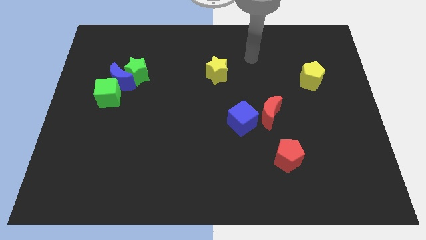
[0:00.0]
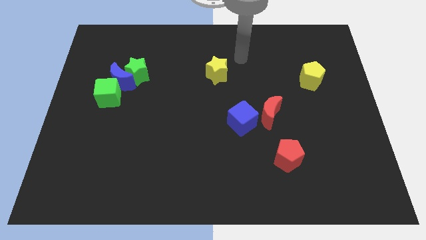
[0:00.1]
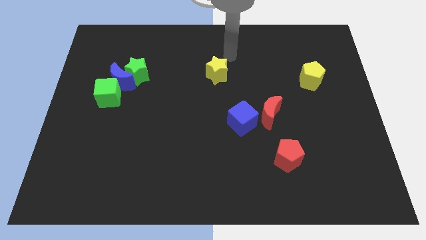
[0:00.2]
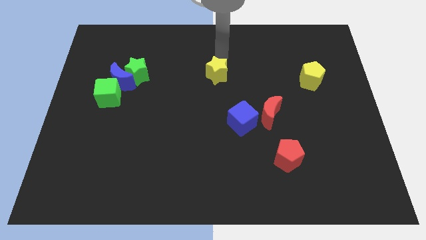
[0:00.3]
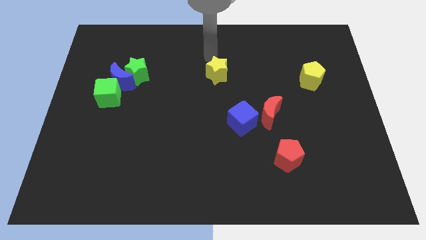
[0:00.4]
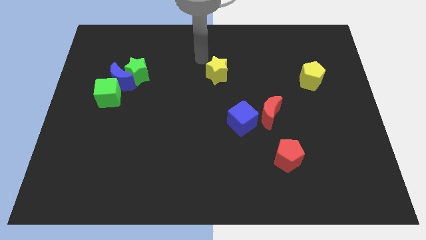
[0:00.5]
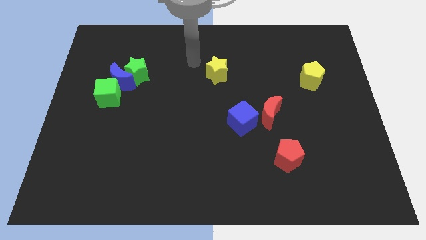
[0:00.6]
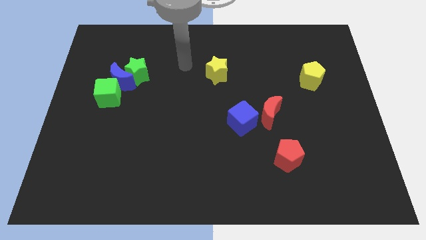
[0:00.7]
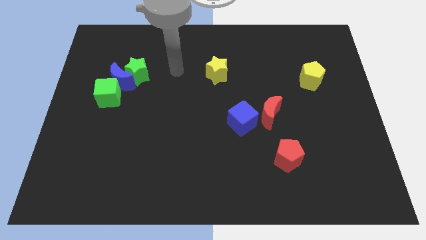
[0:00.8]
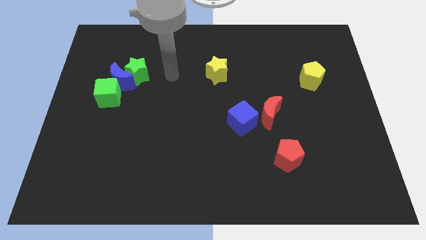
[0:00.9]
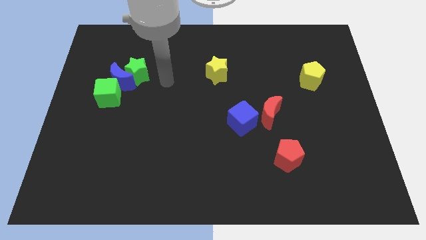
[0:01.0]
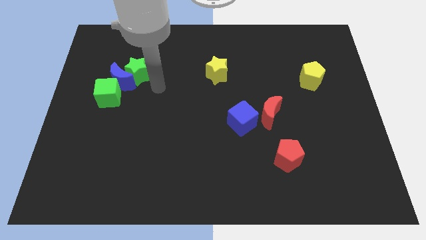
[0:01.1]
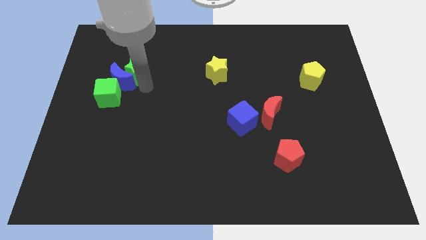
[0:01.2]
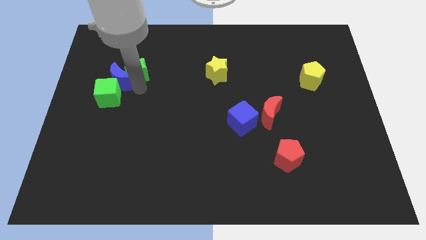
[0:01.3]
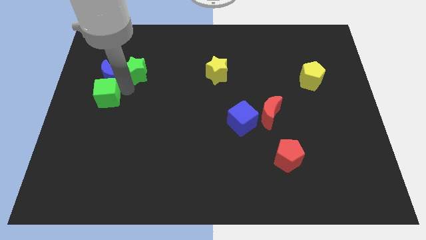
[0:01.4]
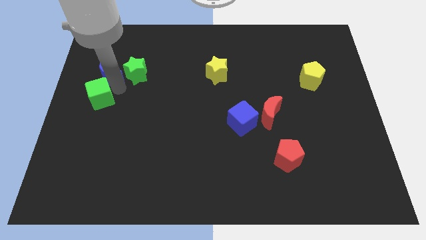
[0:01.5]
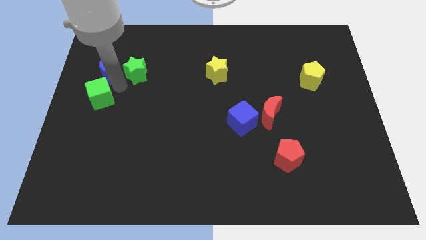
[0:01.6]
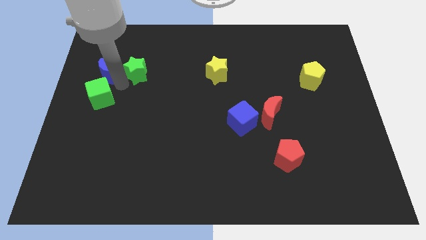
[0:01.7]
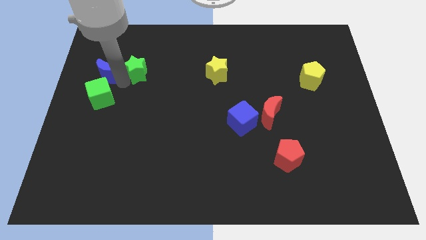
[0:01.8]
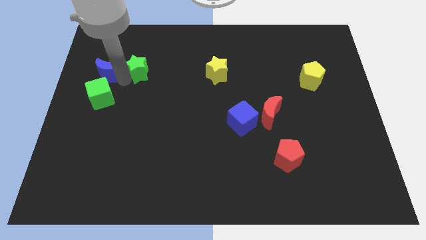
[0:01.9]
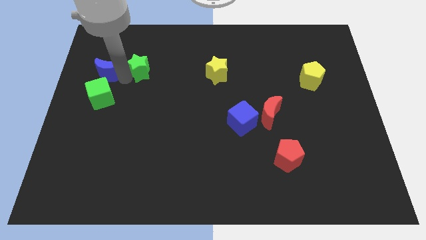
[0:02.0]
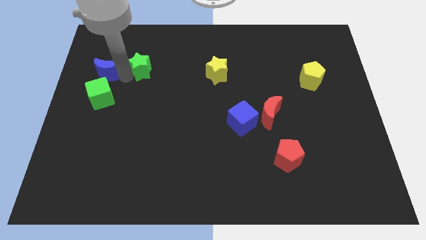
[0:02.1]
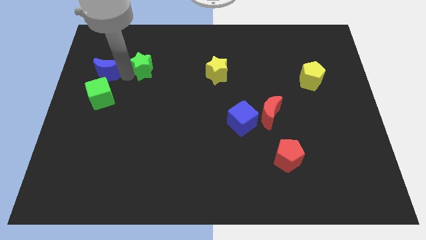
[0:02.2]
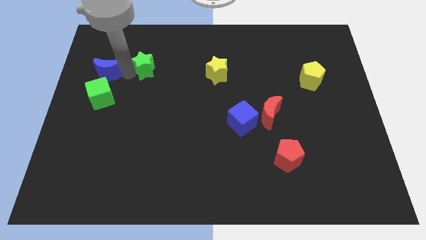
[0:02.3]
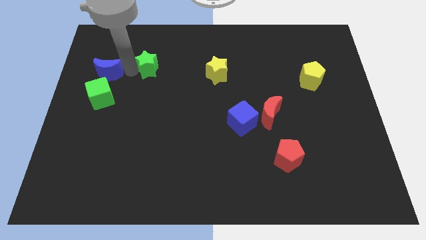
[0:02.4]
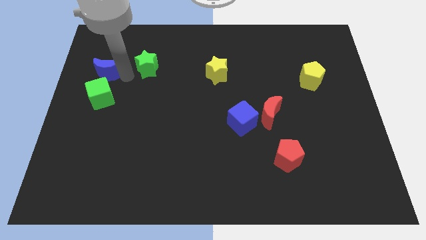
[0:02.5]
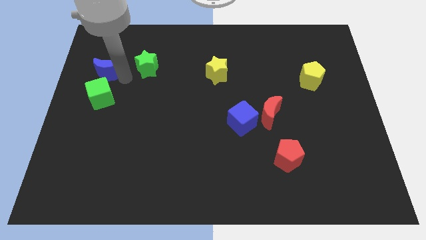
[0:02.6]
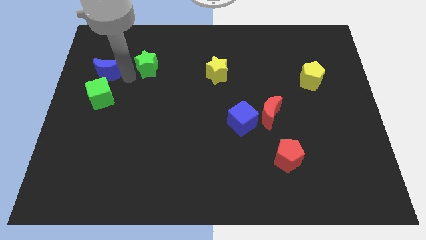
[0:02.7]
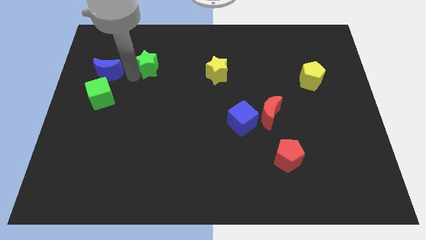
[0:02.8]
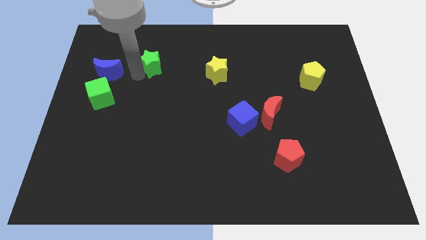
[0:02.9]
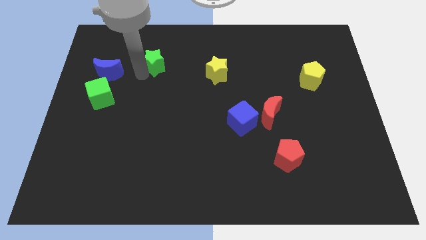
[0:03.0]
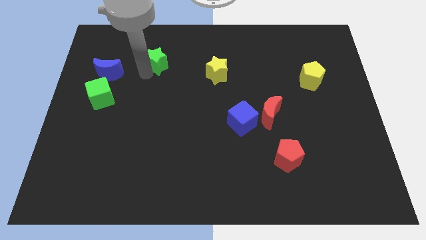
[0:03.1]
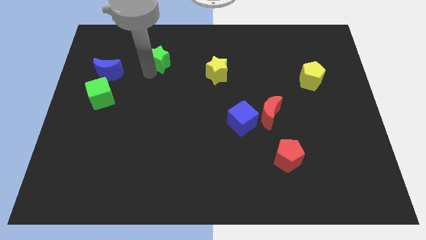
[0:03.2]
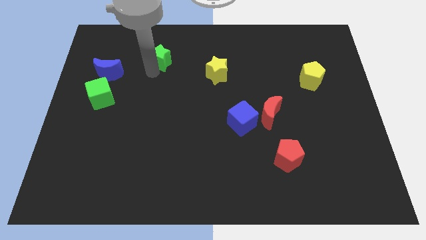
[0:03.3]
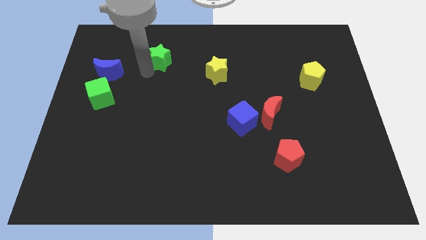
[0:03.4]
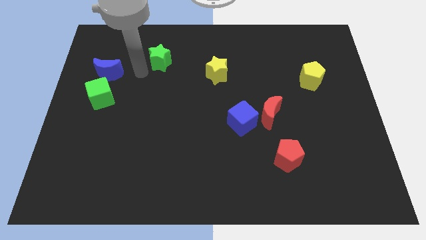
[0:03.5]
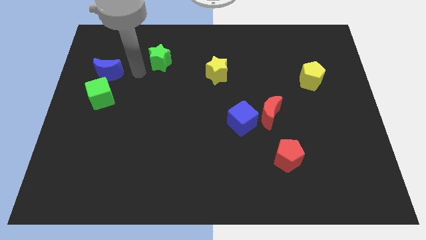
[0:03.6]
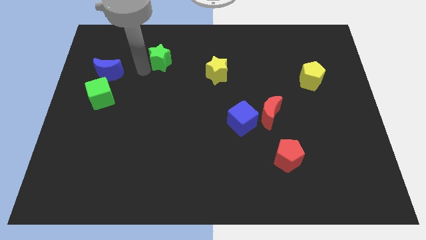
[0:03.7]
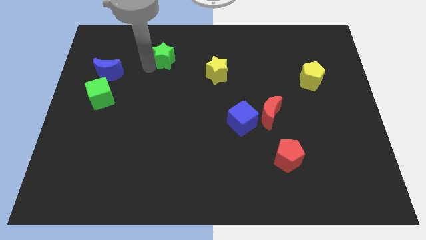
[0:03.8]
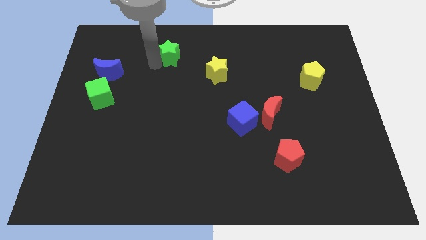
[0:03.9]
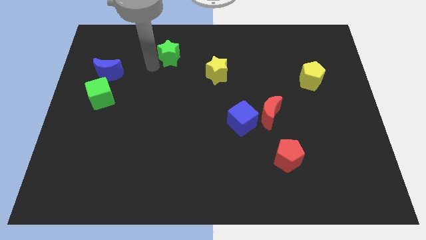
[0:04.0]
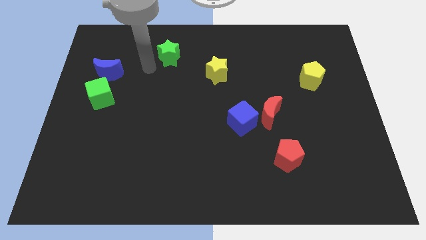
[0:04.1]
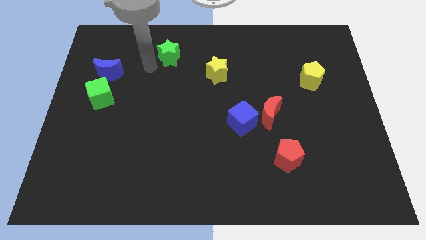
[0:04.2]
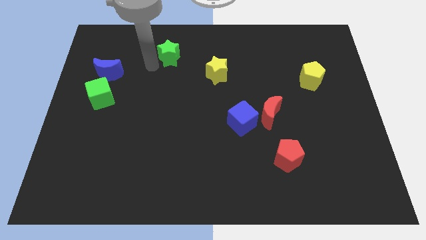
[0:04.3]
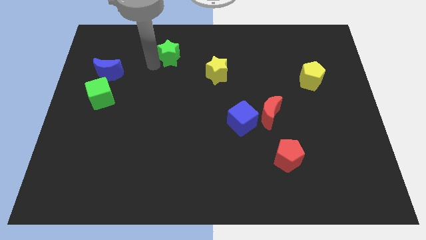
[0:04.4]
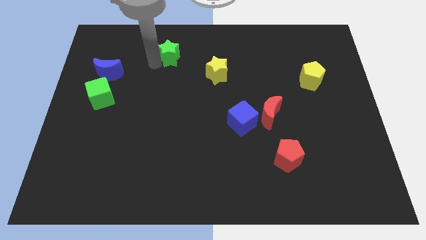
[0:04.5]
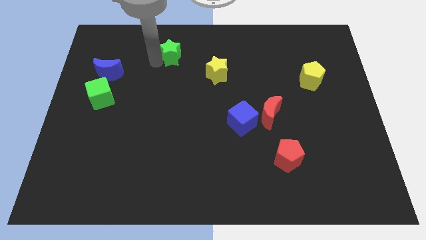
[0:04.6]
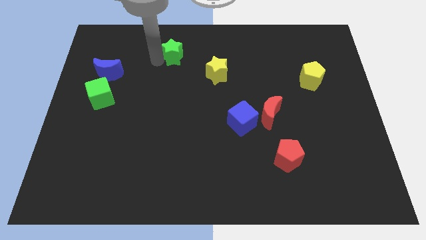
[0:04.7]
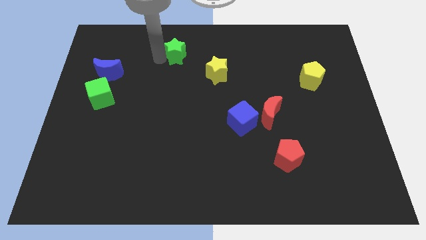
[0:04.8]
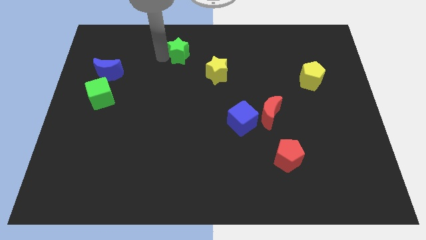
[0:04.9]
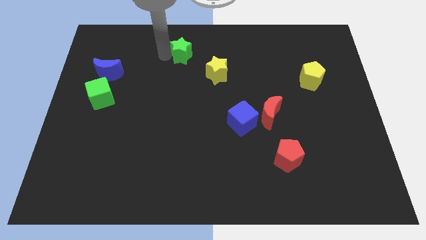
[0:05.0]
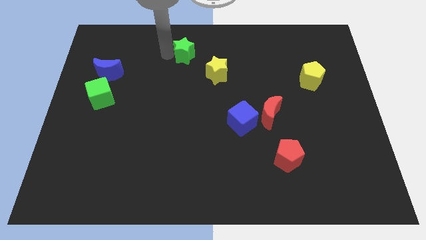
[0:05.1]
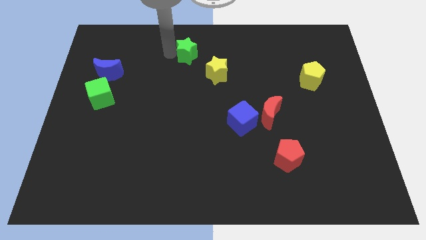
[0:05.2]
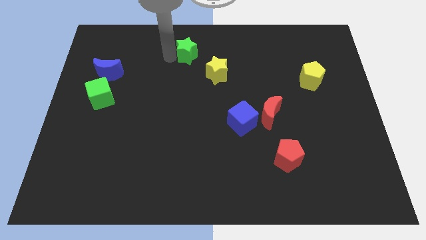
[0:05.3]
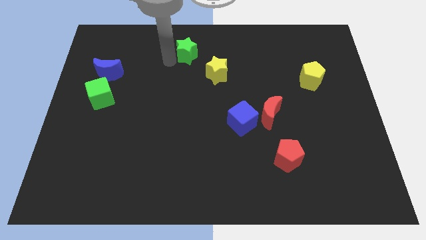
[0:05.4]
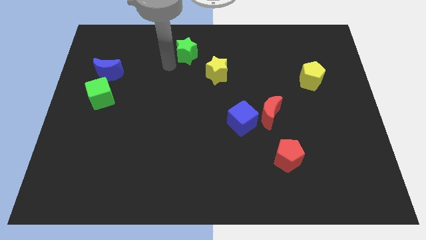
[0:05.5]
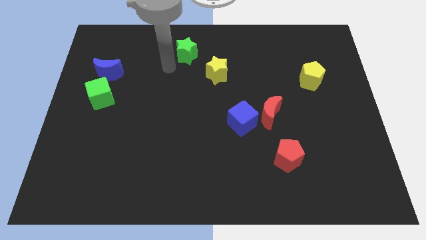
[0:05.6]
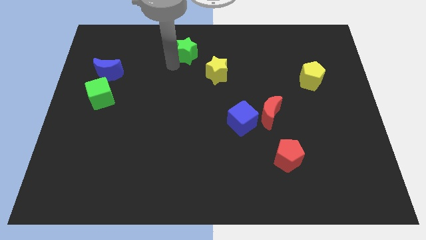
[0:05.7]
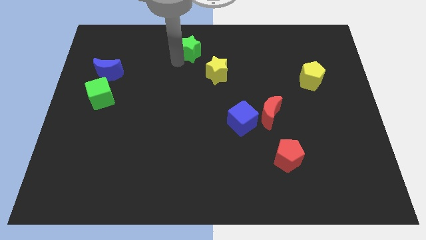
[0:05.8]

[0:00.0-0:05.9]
slide the green star to the top

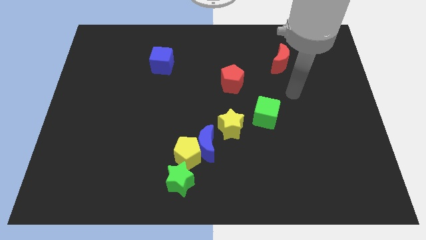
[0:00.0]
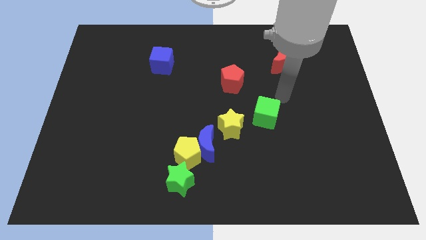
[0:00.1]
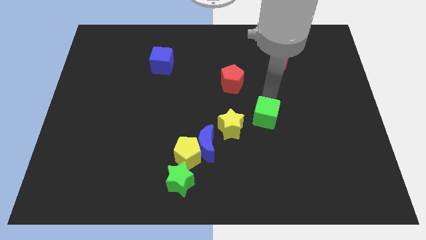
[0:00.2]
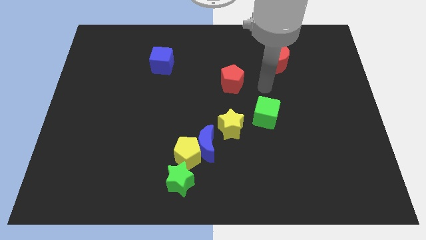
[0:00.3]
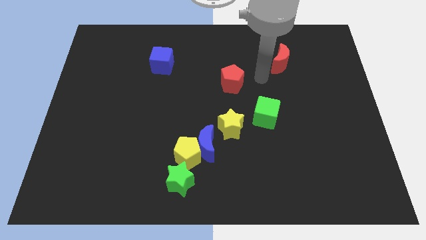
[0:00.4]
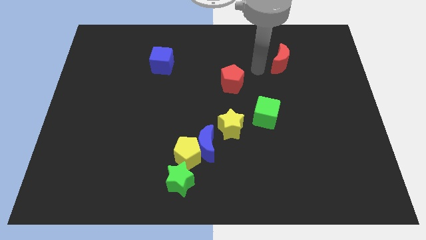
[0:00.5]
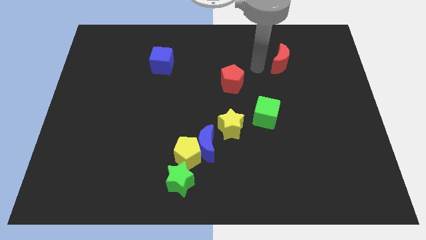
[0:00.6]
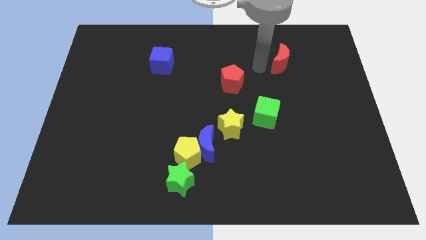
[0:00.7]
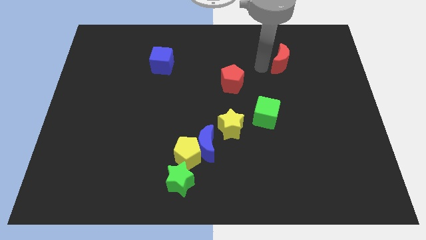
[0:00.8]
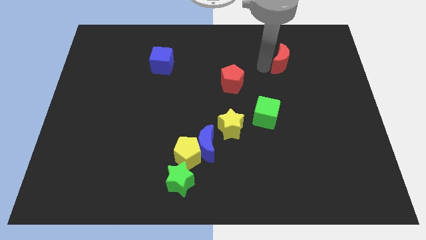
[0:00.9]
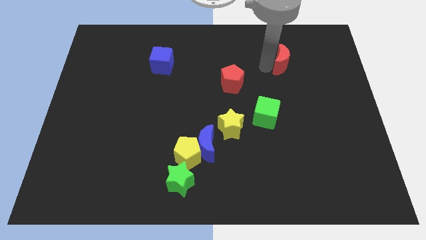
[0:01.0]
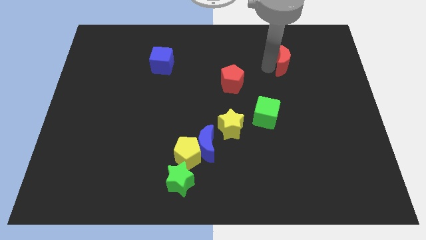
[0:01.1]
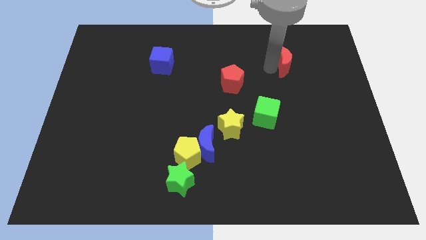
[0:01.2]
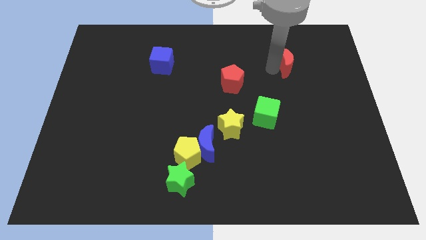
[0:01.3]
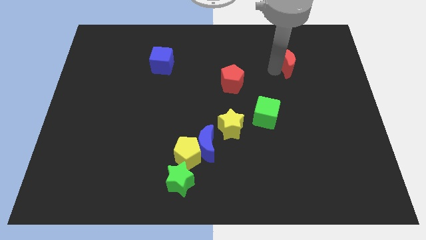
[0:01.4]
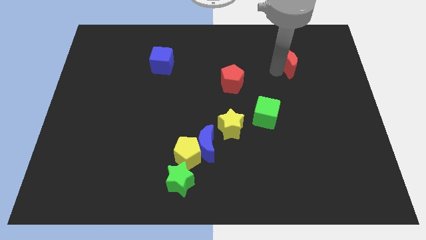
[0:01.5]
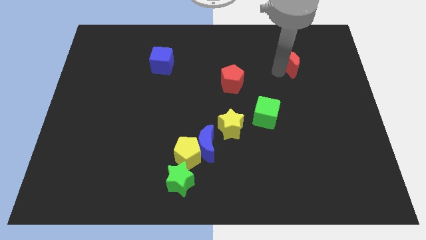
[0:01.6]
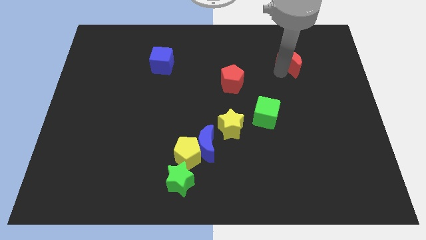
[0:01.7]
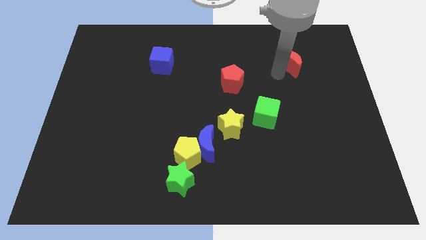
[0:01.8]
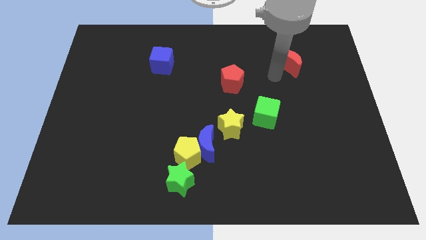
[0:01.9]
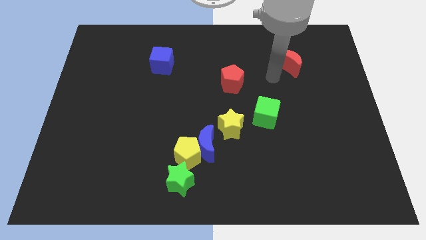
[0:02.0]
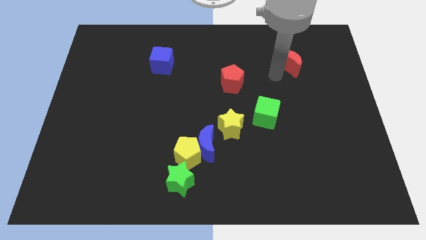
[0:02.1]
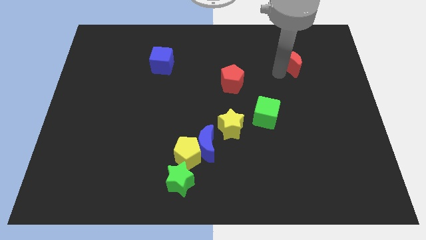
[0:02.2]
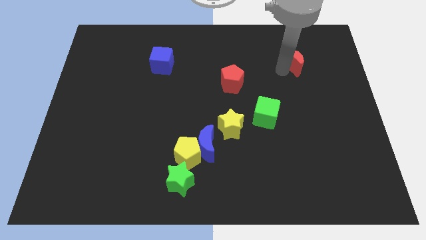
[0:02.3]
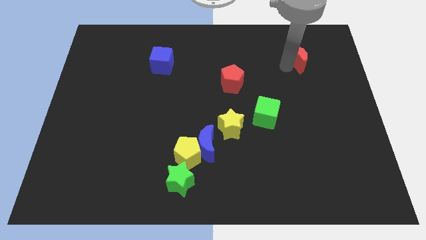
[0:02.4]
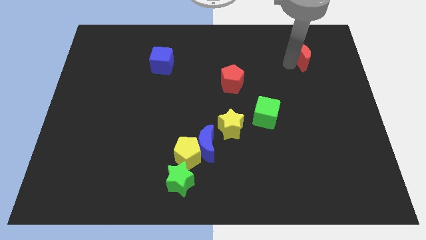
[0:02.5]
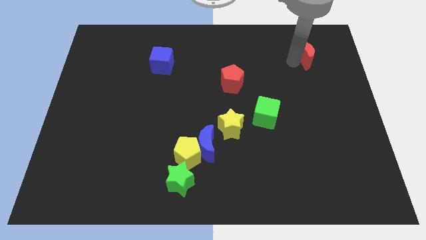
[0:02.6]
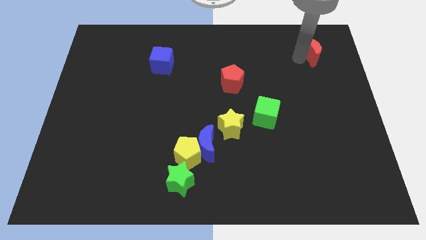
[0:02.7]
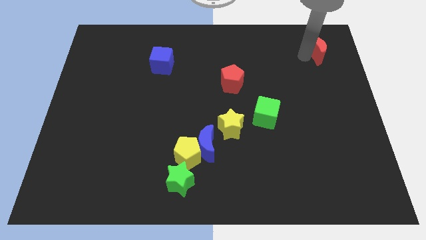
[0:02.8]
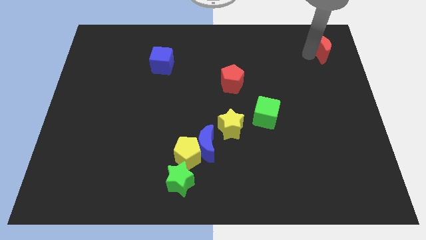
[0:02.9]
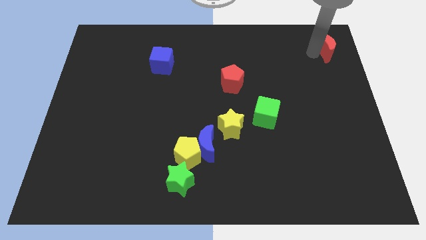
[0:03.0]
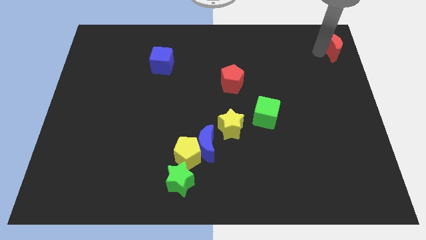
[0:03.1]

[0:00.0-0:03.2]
move the red moon to the top right of the board
